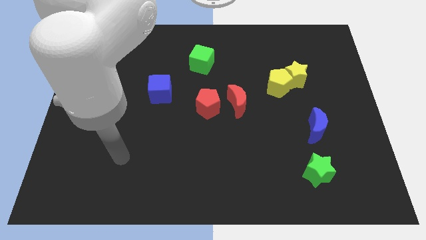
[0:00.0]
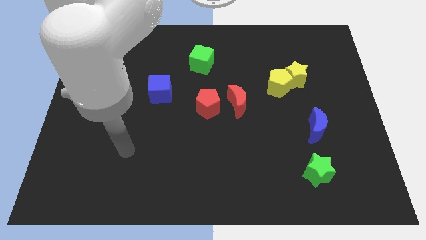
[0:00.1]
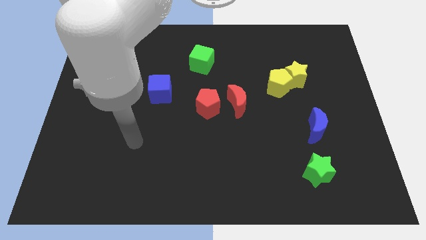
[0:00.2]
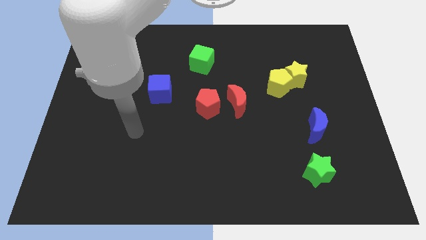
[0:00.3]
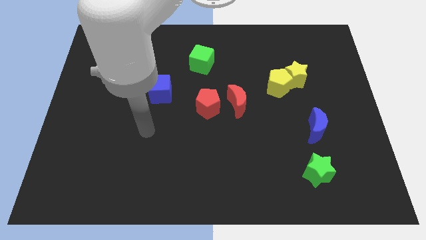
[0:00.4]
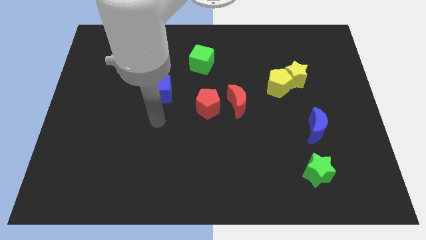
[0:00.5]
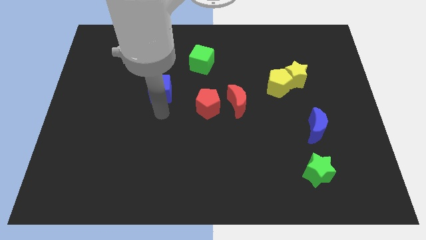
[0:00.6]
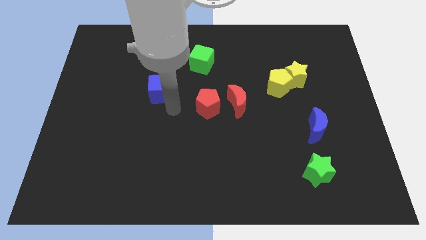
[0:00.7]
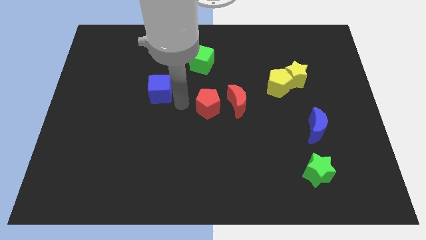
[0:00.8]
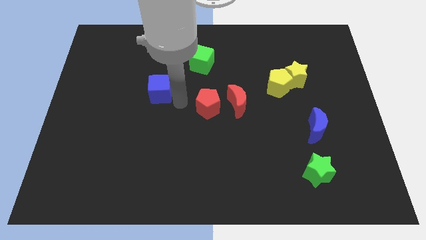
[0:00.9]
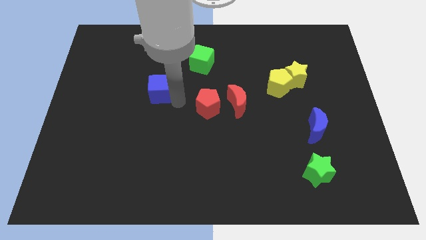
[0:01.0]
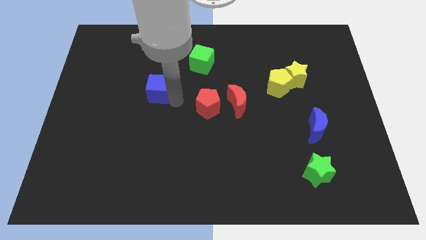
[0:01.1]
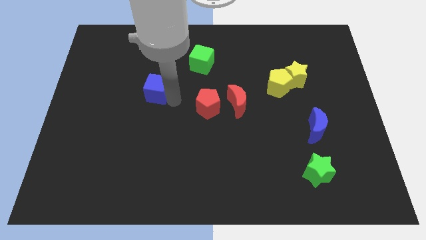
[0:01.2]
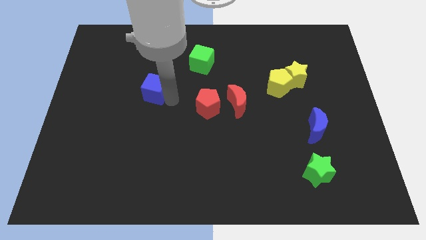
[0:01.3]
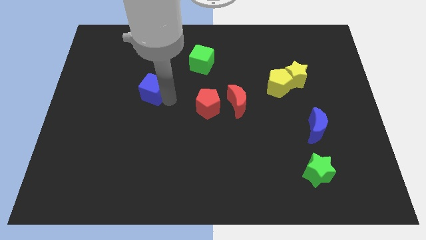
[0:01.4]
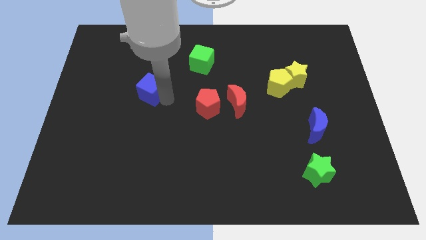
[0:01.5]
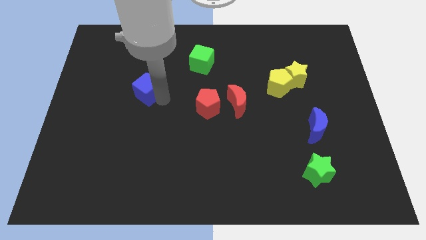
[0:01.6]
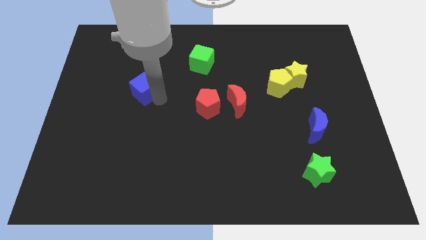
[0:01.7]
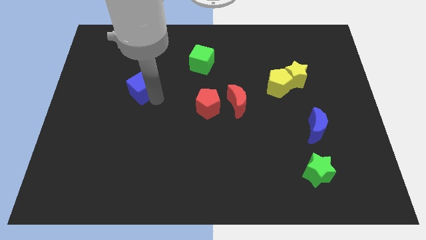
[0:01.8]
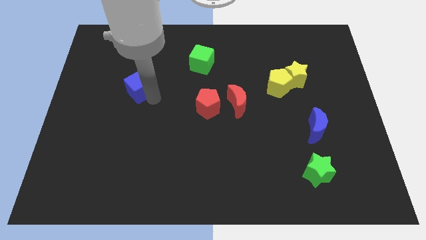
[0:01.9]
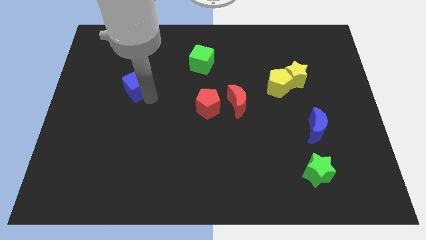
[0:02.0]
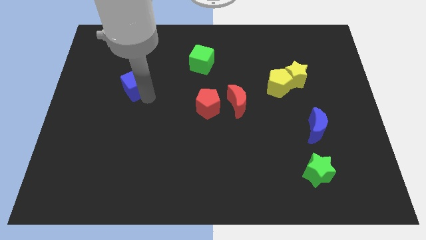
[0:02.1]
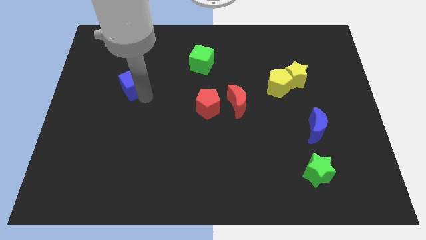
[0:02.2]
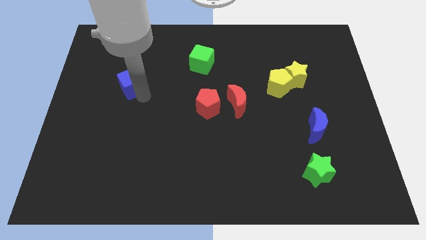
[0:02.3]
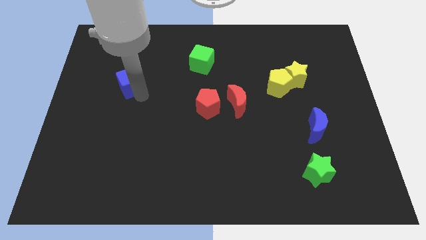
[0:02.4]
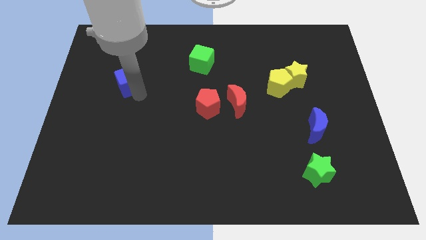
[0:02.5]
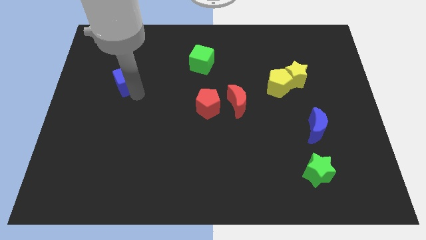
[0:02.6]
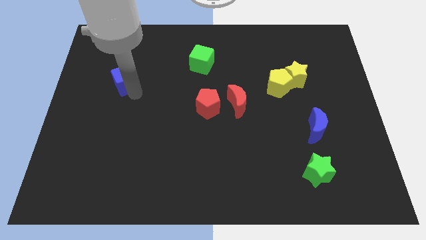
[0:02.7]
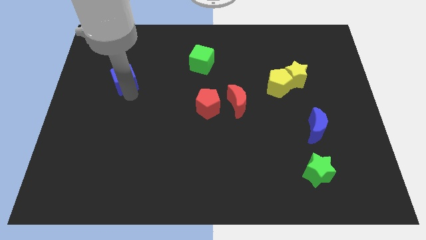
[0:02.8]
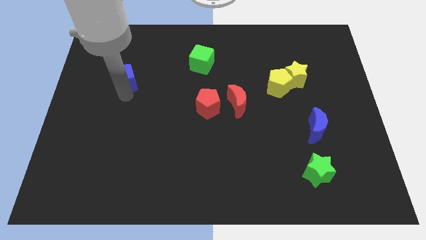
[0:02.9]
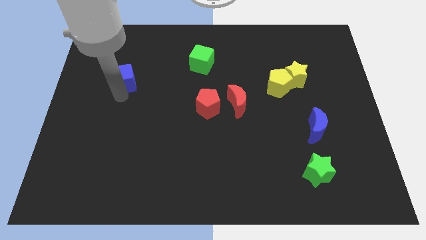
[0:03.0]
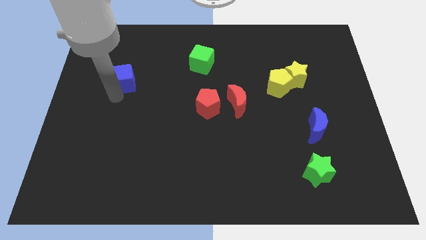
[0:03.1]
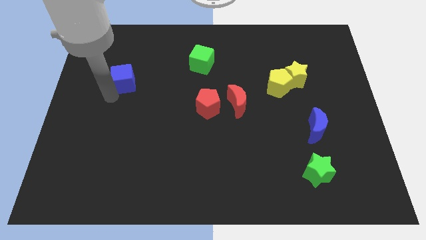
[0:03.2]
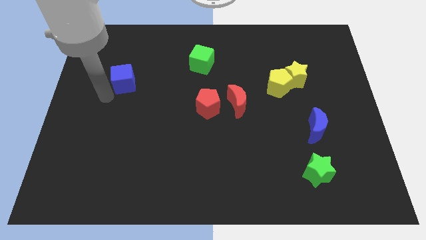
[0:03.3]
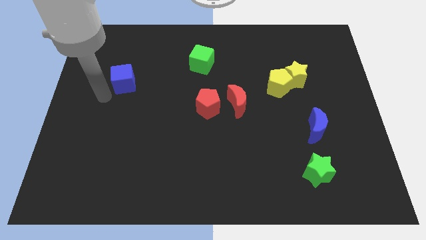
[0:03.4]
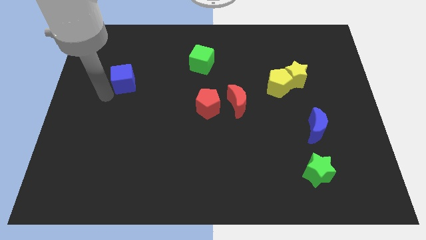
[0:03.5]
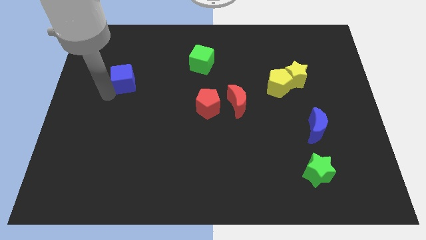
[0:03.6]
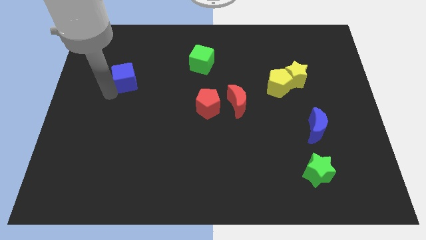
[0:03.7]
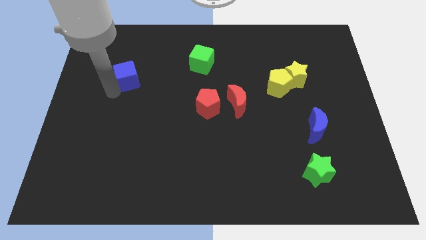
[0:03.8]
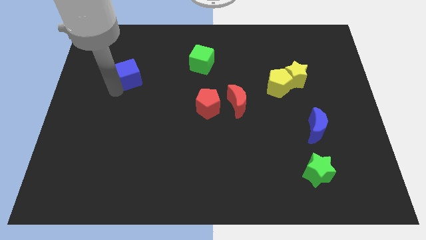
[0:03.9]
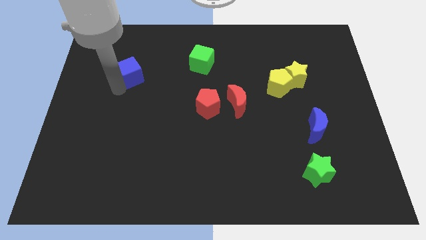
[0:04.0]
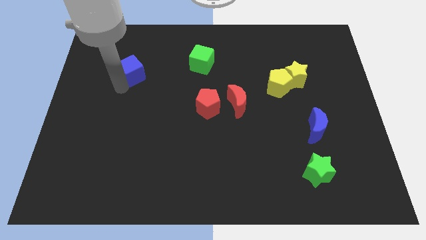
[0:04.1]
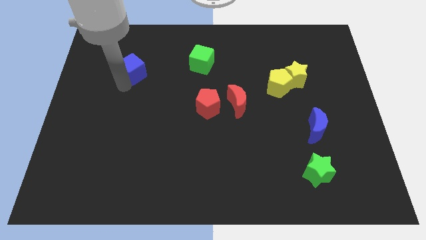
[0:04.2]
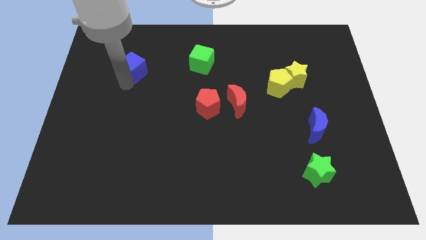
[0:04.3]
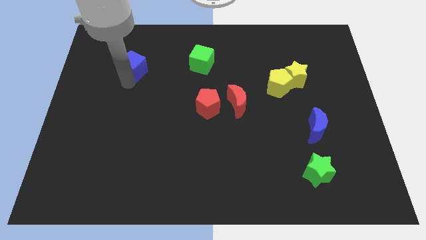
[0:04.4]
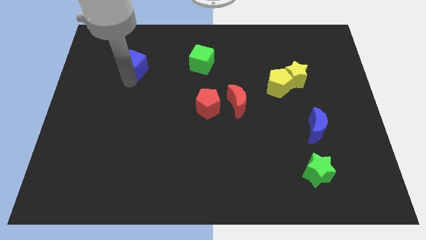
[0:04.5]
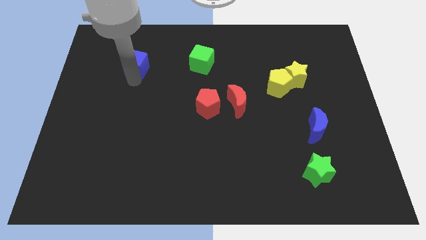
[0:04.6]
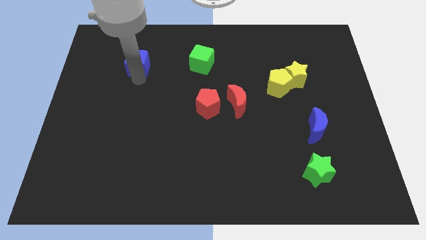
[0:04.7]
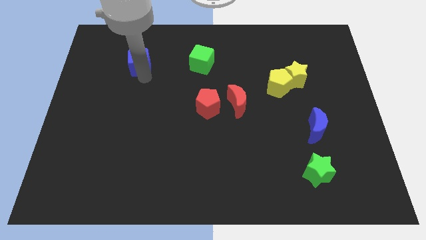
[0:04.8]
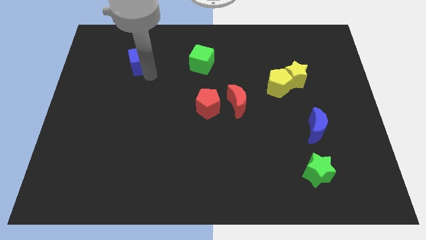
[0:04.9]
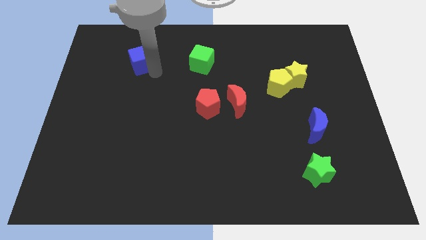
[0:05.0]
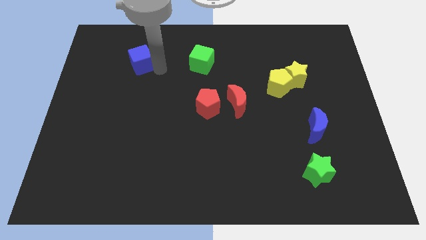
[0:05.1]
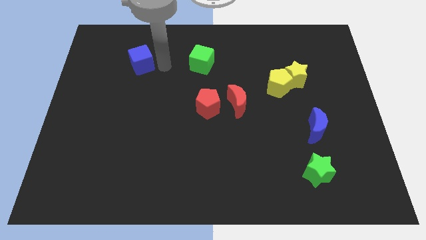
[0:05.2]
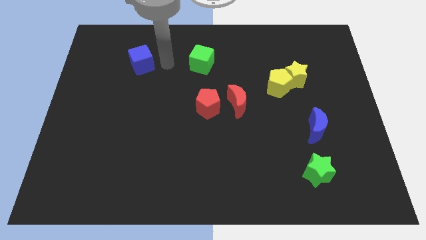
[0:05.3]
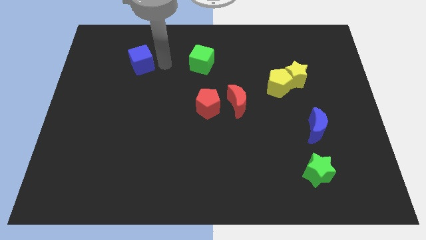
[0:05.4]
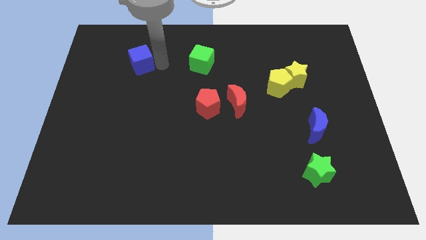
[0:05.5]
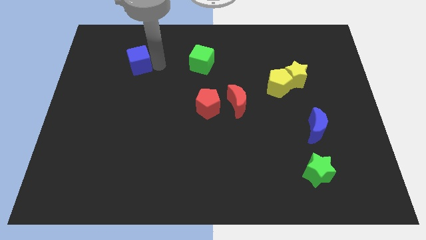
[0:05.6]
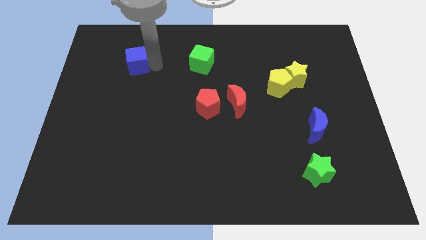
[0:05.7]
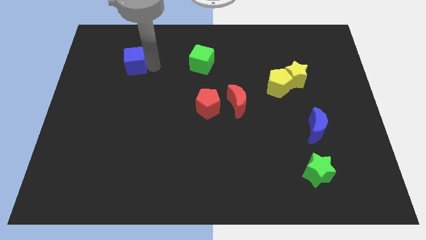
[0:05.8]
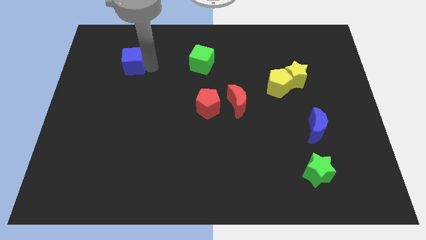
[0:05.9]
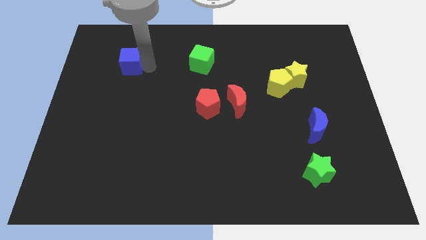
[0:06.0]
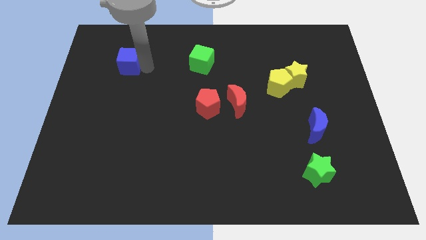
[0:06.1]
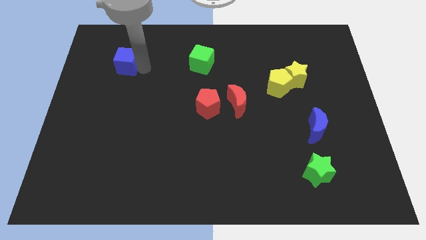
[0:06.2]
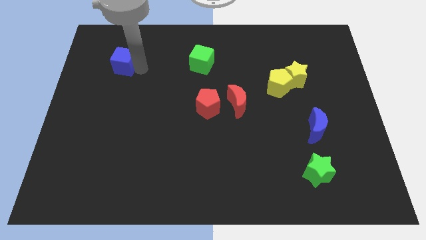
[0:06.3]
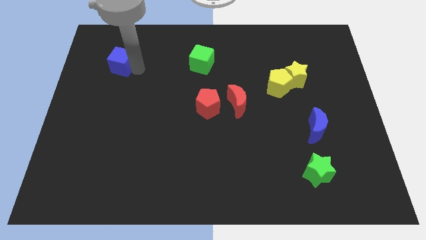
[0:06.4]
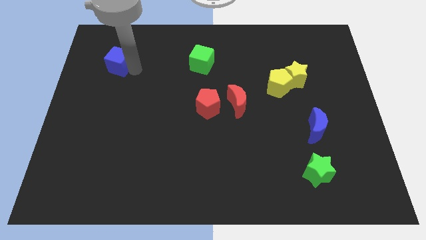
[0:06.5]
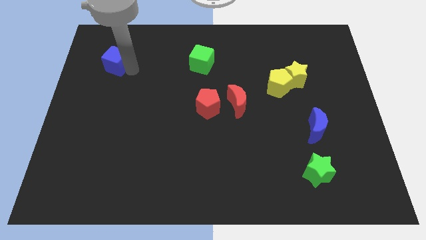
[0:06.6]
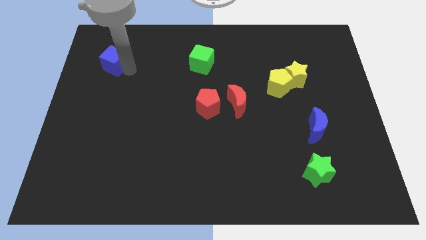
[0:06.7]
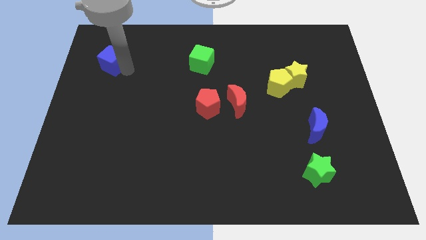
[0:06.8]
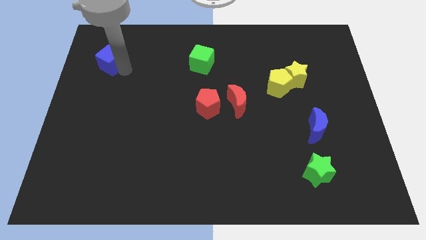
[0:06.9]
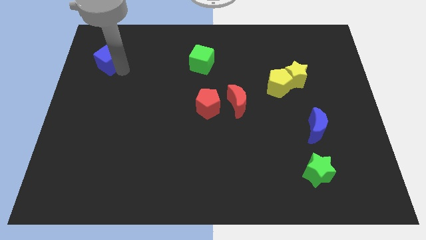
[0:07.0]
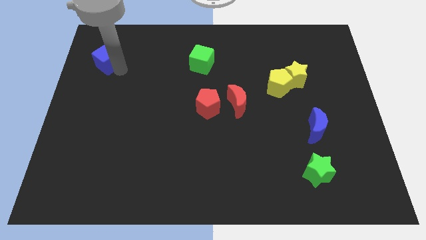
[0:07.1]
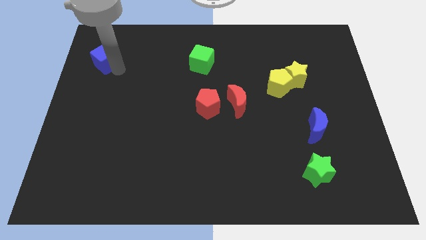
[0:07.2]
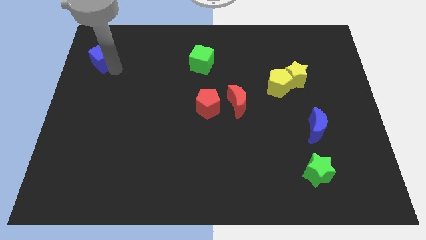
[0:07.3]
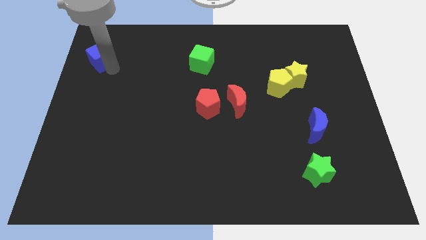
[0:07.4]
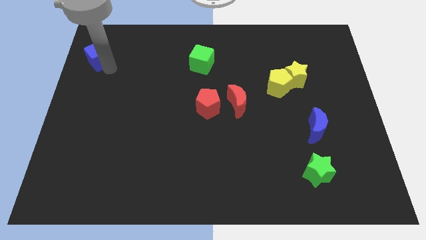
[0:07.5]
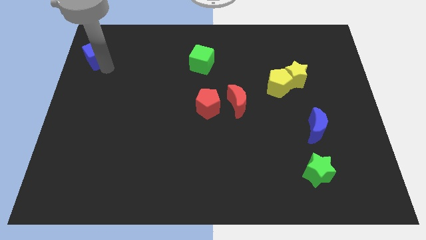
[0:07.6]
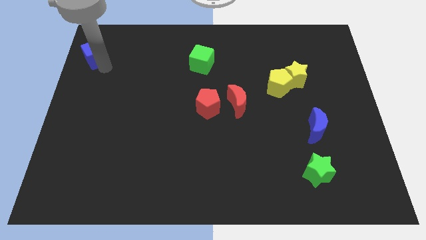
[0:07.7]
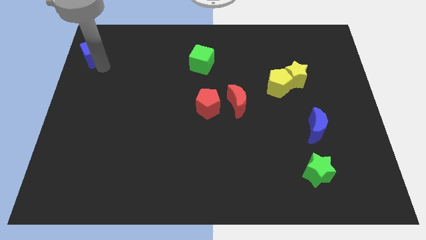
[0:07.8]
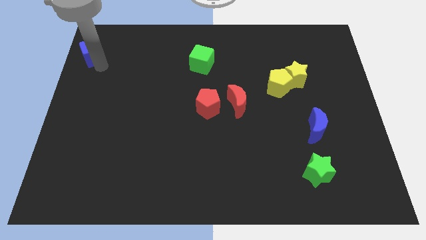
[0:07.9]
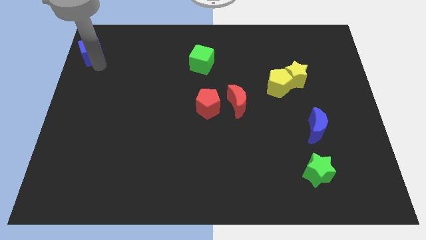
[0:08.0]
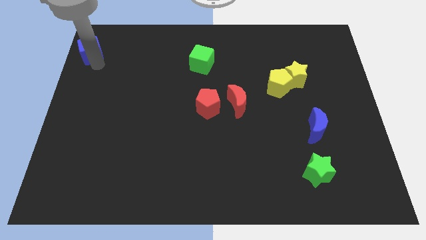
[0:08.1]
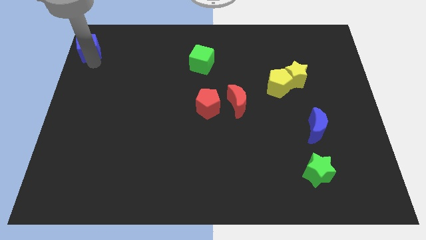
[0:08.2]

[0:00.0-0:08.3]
move the blue cube to the top left
